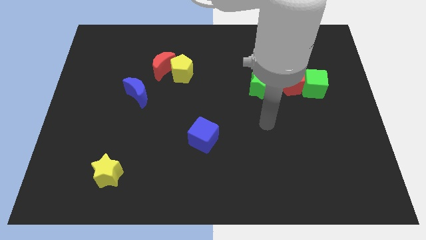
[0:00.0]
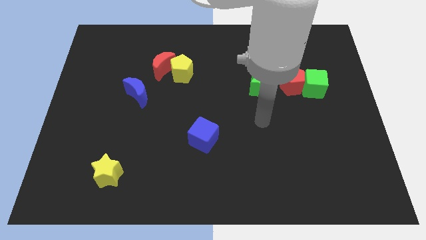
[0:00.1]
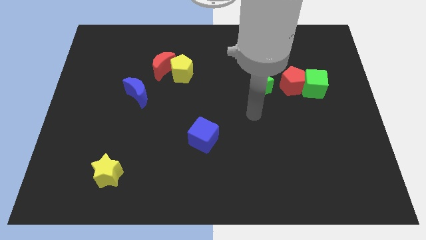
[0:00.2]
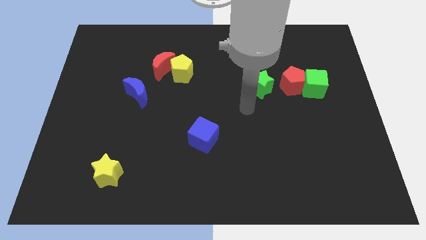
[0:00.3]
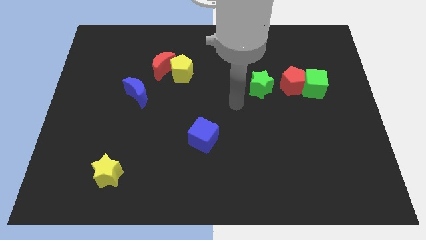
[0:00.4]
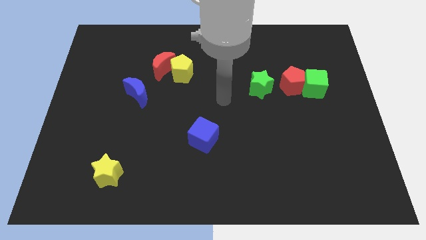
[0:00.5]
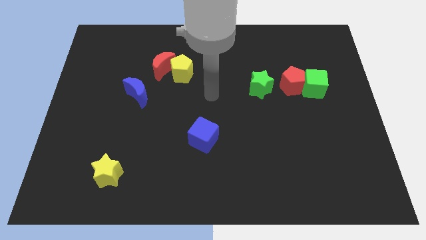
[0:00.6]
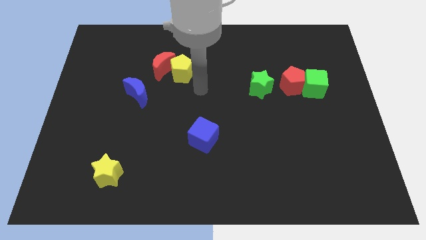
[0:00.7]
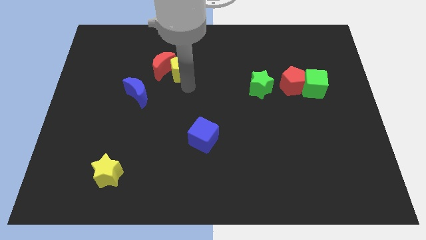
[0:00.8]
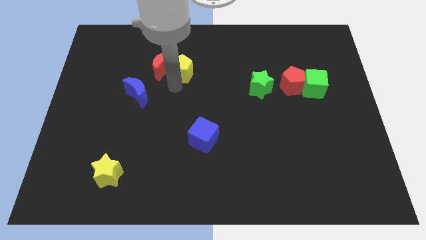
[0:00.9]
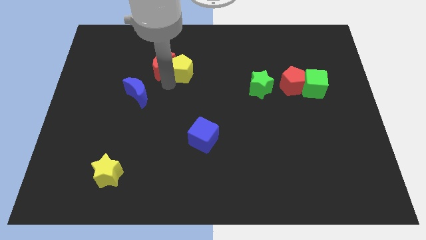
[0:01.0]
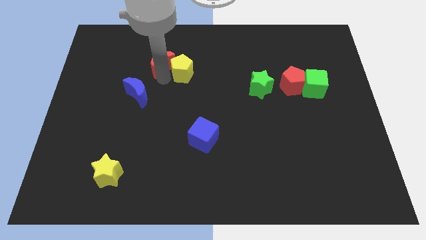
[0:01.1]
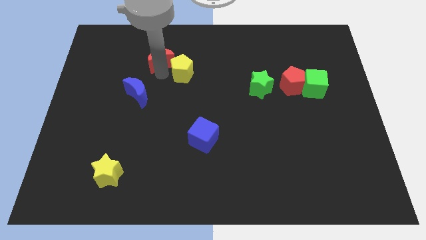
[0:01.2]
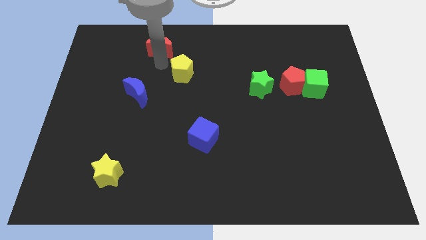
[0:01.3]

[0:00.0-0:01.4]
move the yellow pentagon away from the red moon

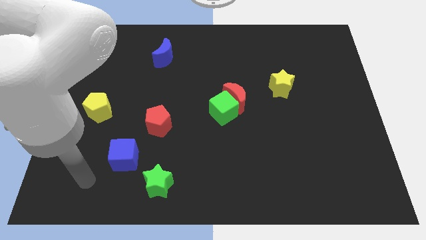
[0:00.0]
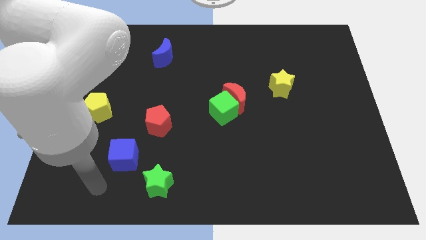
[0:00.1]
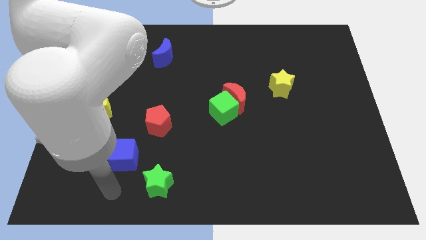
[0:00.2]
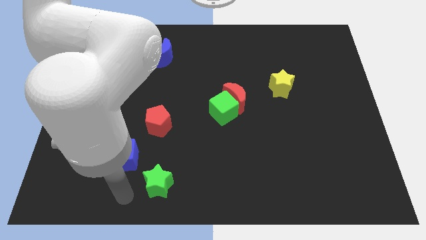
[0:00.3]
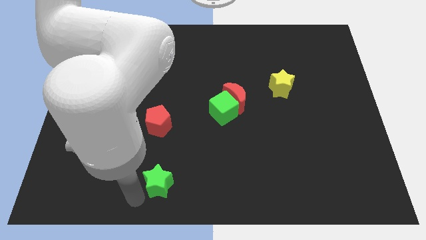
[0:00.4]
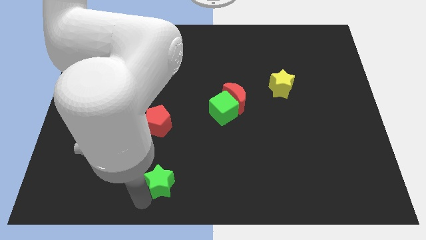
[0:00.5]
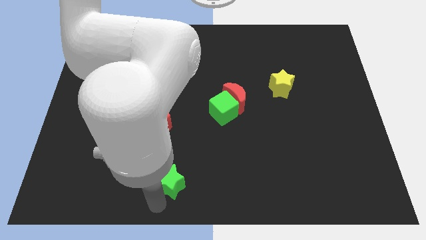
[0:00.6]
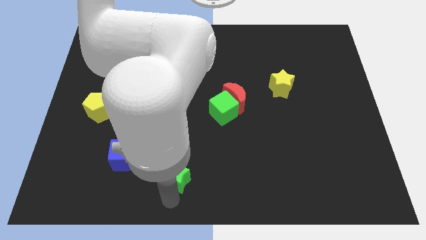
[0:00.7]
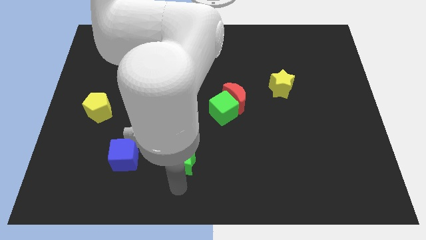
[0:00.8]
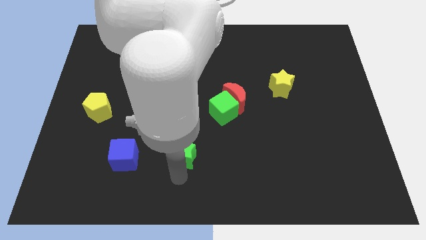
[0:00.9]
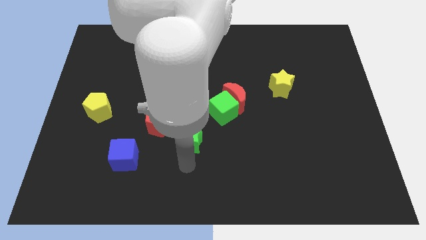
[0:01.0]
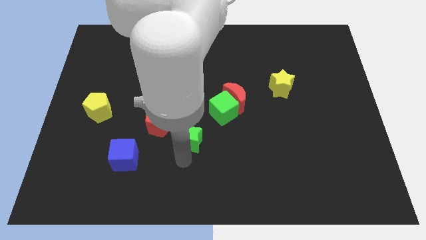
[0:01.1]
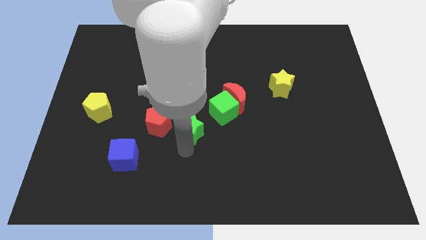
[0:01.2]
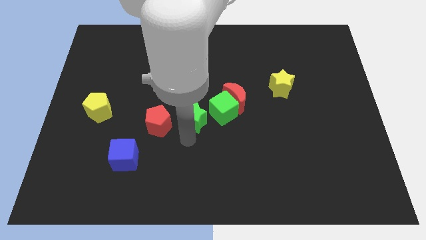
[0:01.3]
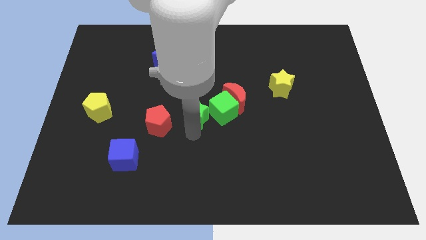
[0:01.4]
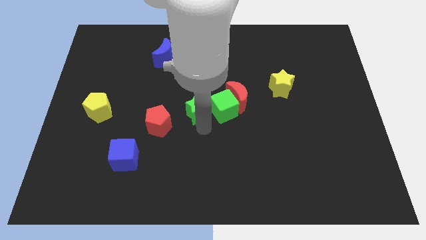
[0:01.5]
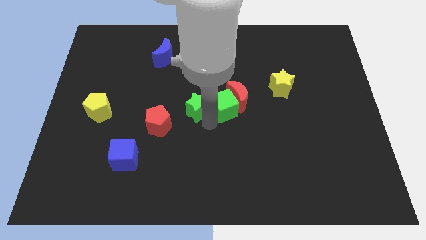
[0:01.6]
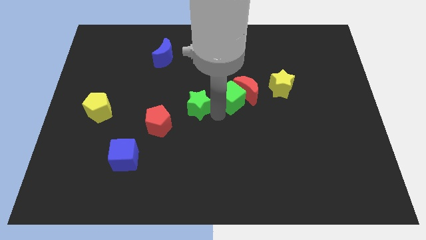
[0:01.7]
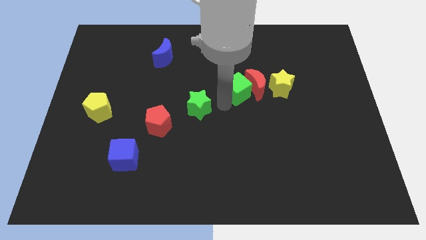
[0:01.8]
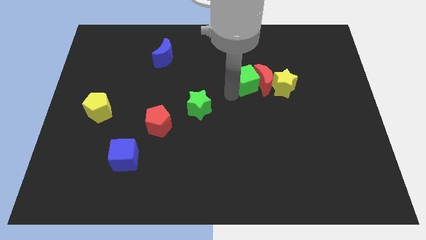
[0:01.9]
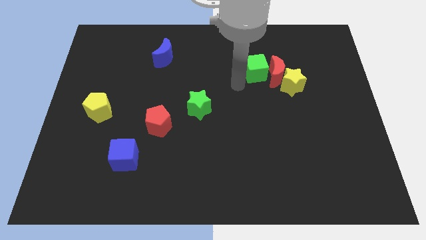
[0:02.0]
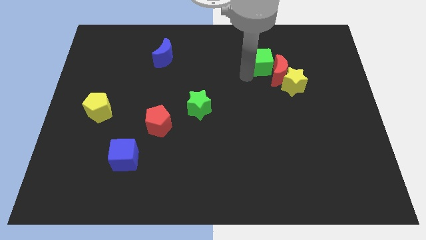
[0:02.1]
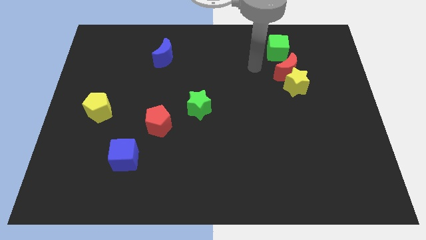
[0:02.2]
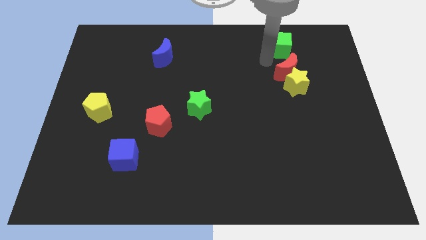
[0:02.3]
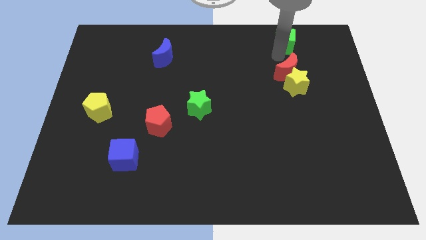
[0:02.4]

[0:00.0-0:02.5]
separate the red moon from the green cube

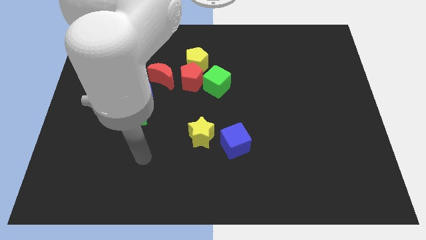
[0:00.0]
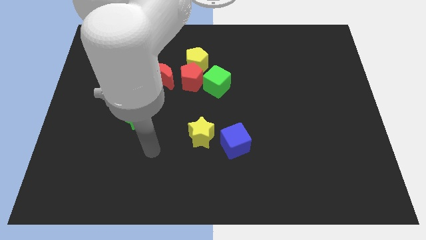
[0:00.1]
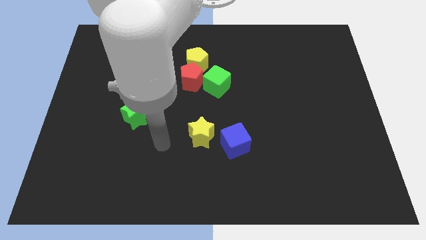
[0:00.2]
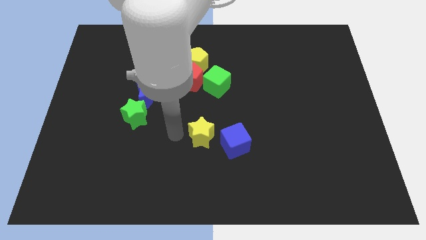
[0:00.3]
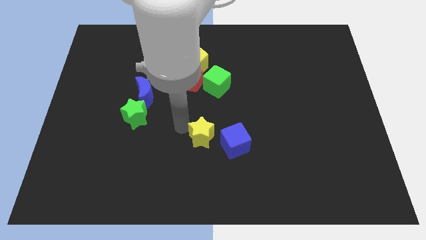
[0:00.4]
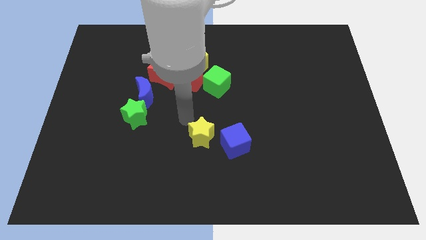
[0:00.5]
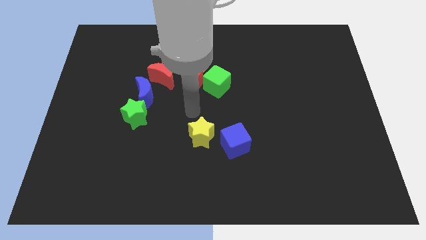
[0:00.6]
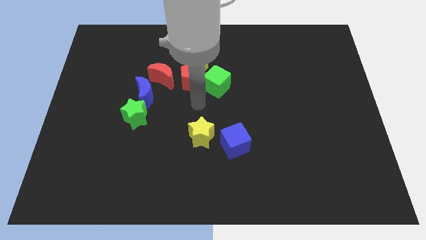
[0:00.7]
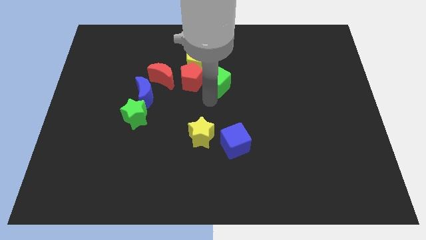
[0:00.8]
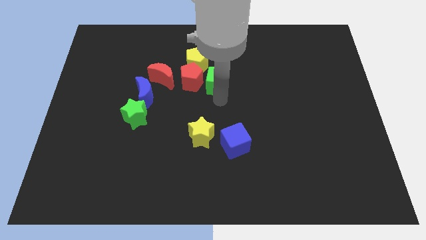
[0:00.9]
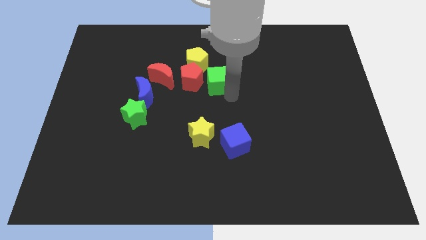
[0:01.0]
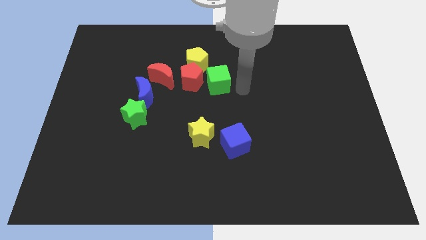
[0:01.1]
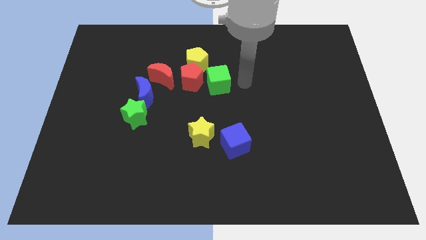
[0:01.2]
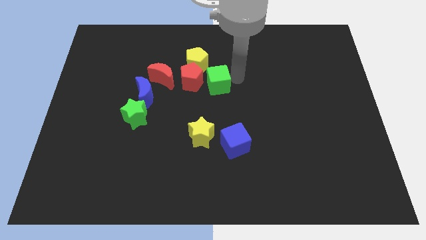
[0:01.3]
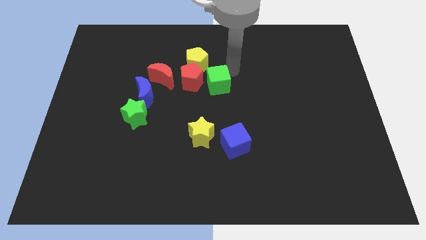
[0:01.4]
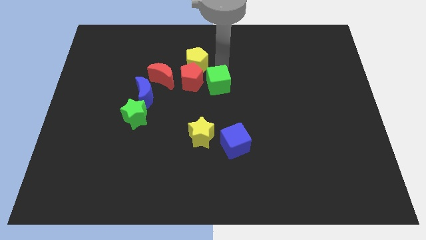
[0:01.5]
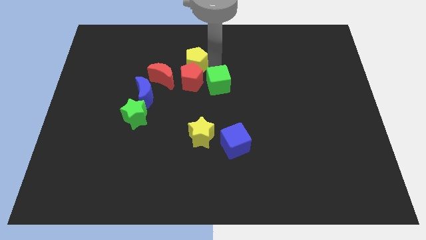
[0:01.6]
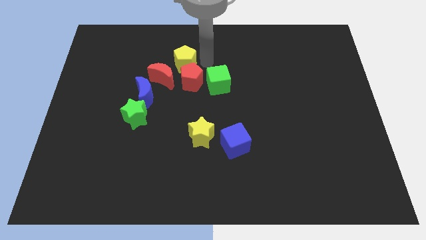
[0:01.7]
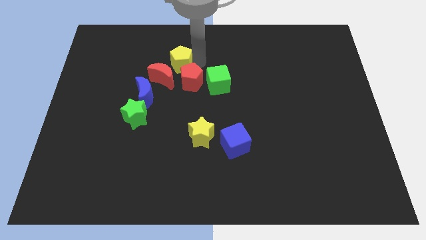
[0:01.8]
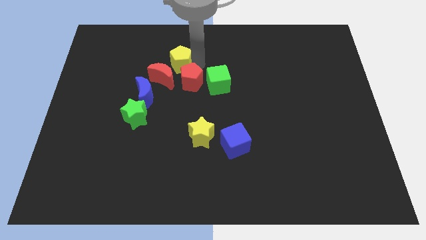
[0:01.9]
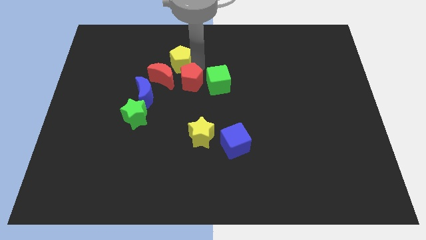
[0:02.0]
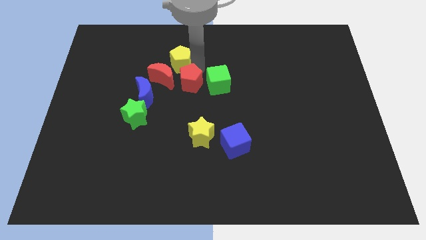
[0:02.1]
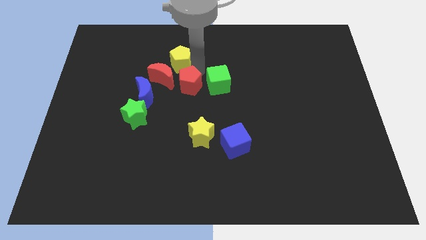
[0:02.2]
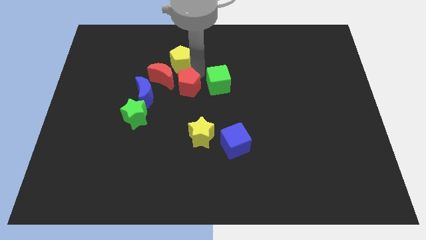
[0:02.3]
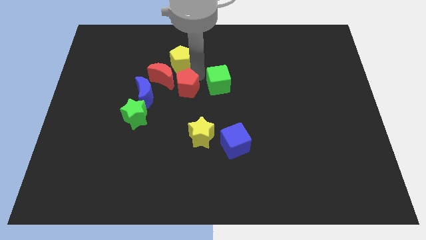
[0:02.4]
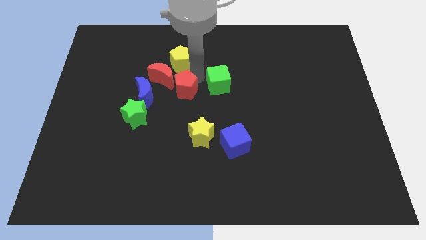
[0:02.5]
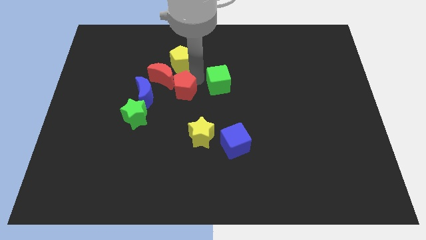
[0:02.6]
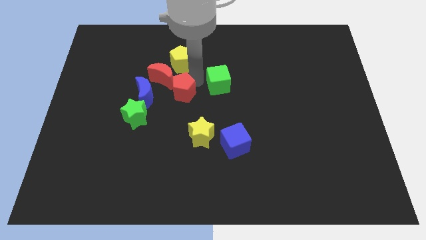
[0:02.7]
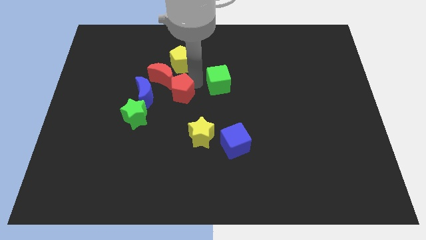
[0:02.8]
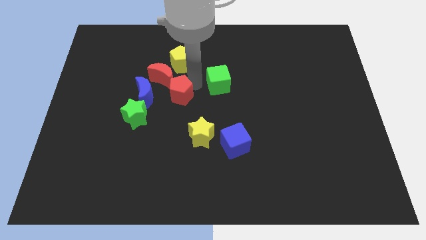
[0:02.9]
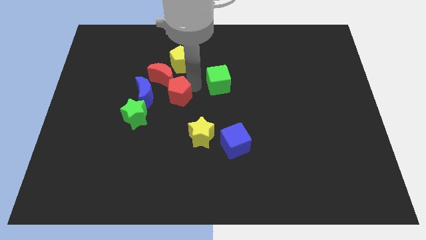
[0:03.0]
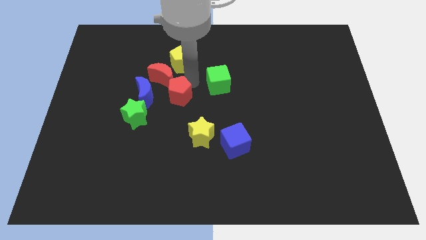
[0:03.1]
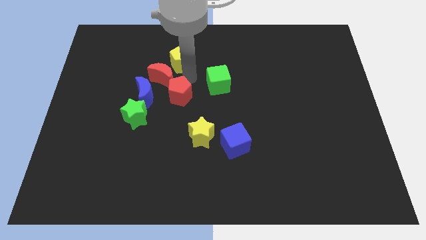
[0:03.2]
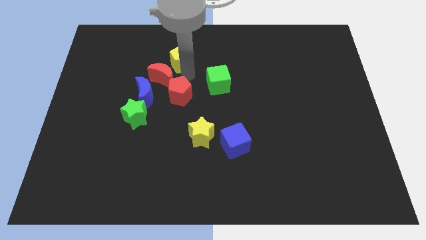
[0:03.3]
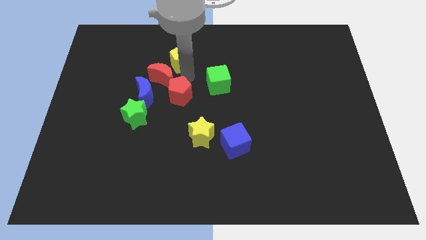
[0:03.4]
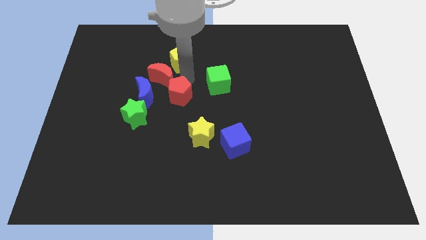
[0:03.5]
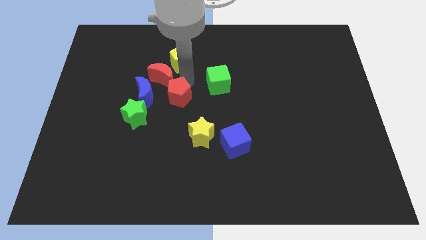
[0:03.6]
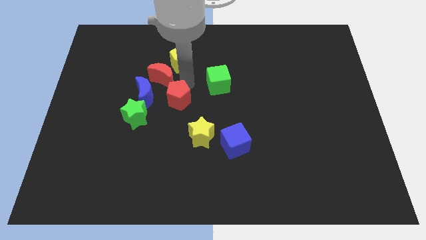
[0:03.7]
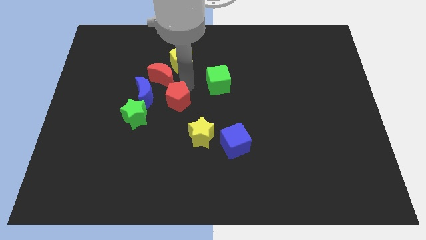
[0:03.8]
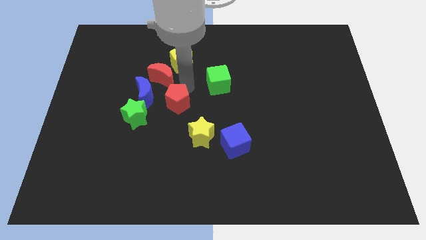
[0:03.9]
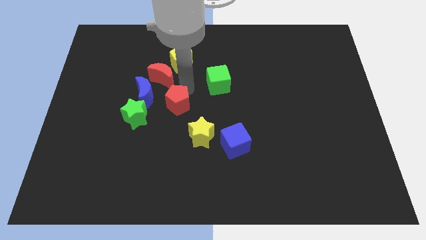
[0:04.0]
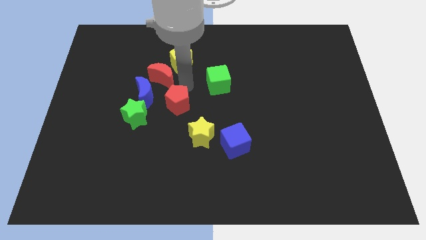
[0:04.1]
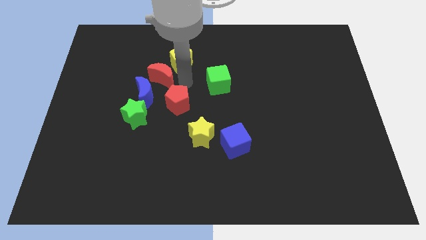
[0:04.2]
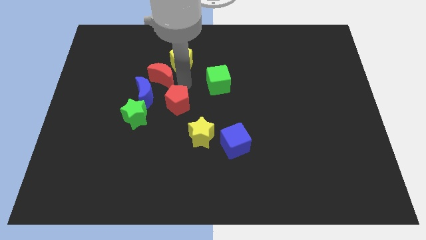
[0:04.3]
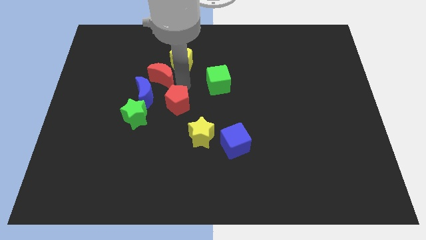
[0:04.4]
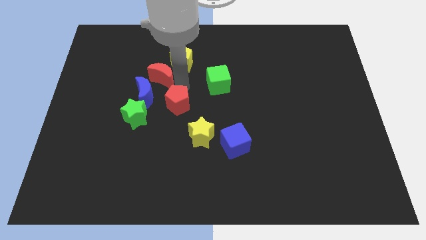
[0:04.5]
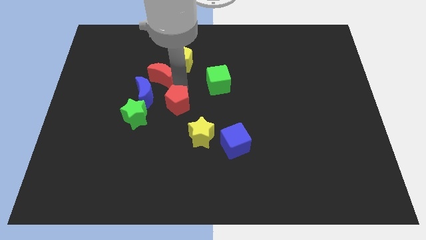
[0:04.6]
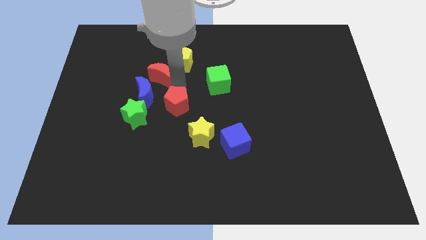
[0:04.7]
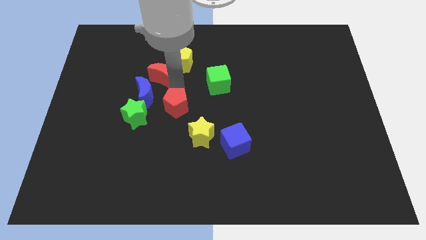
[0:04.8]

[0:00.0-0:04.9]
pull the red pentagon apart from the group

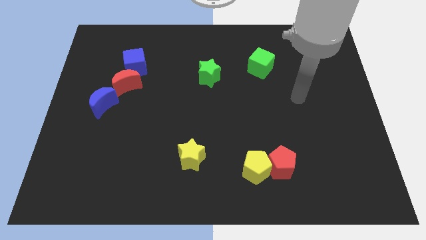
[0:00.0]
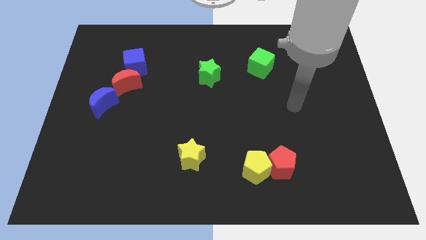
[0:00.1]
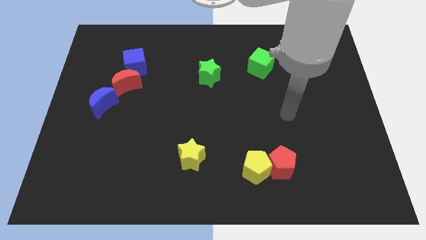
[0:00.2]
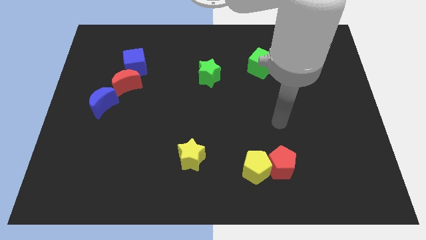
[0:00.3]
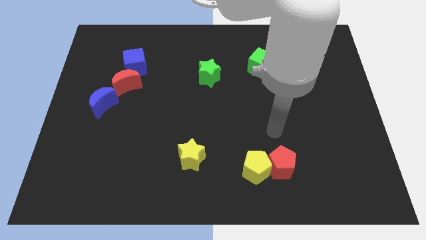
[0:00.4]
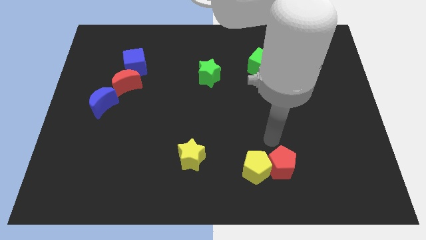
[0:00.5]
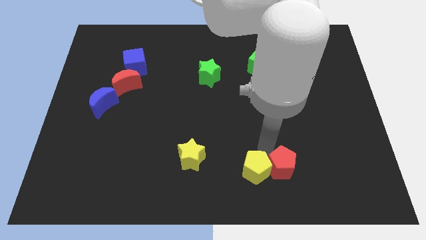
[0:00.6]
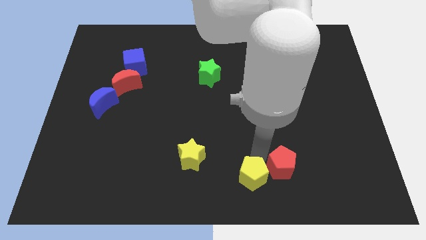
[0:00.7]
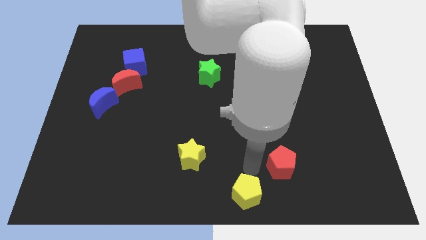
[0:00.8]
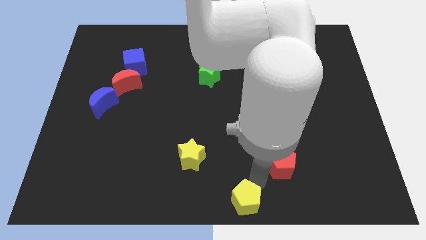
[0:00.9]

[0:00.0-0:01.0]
move the red pentagon away from the yellow pentagon
